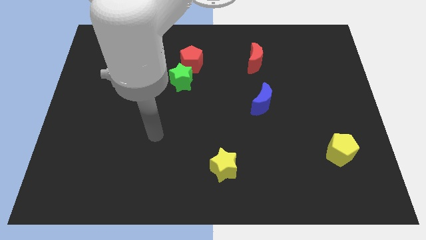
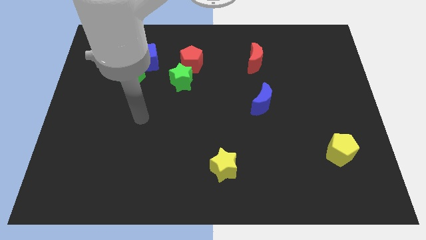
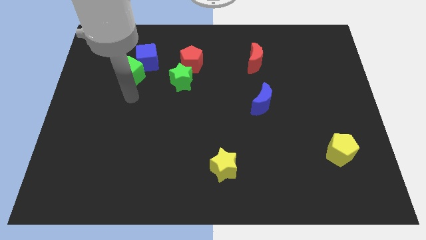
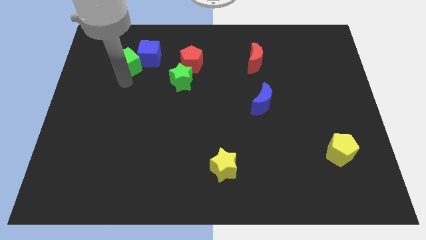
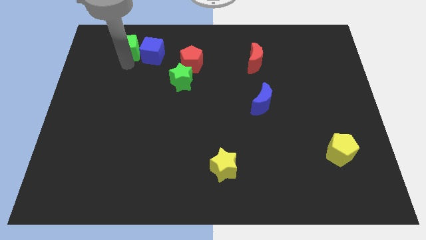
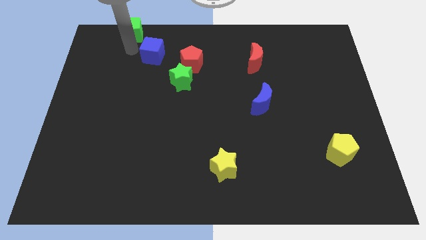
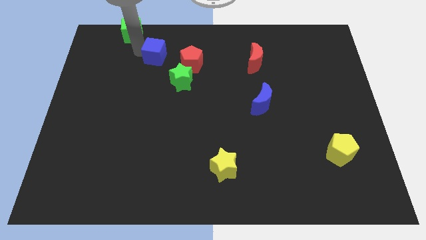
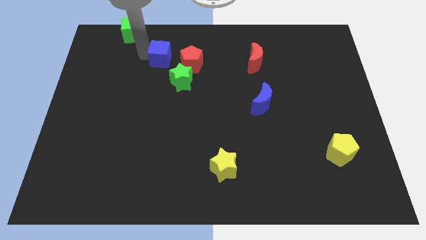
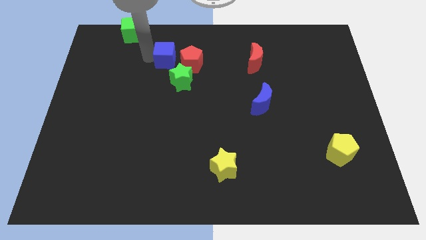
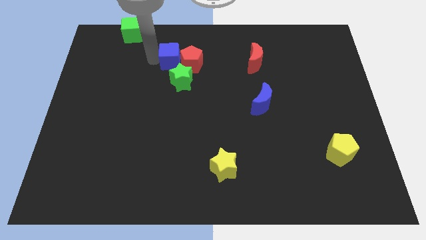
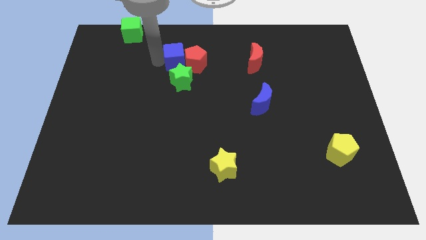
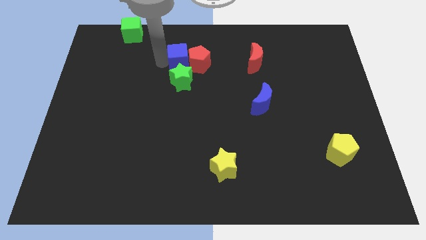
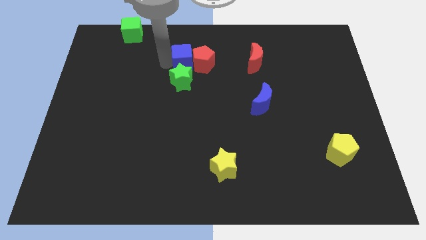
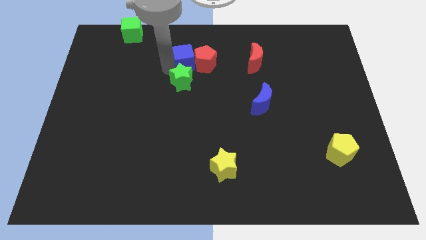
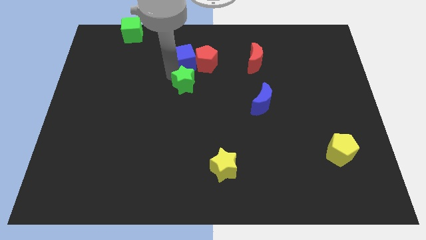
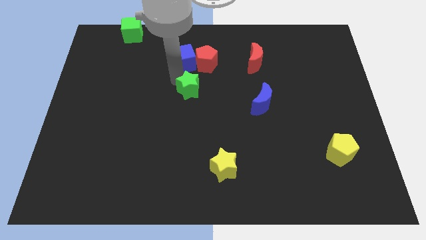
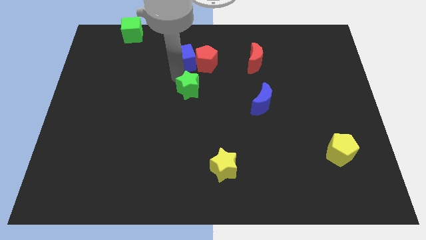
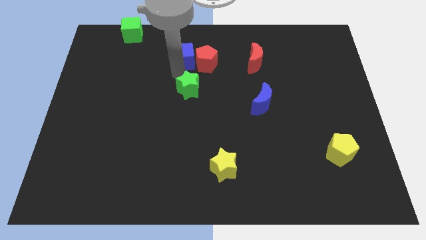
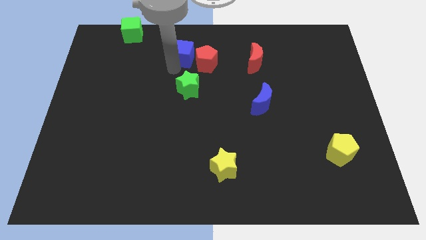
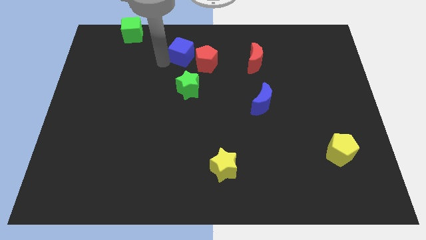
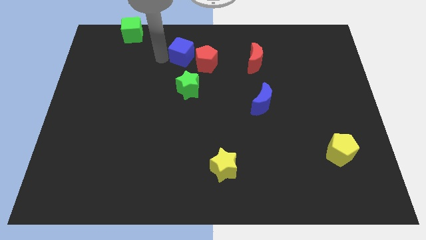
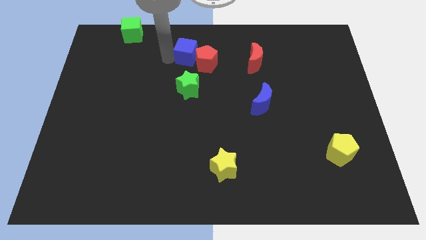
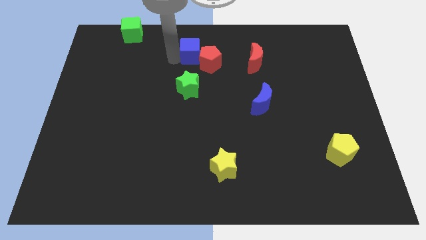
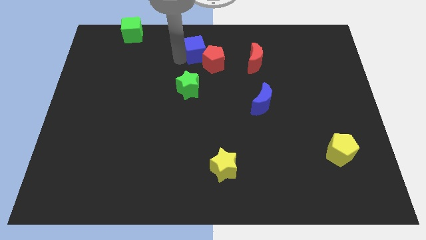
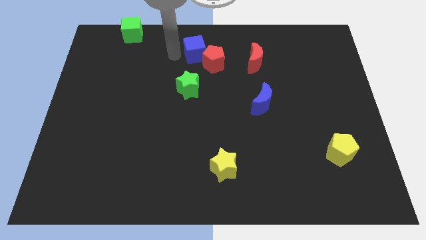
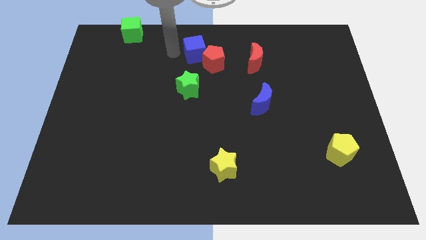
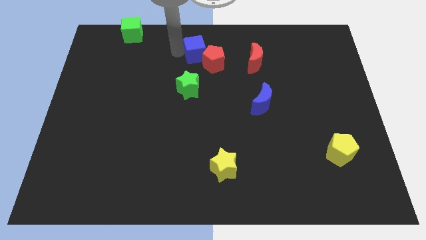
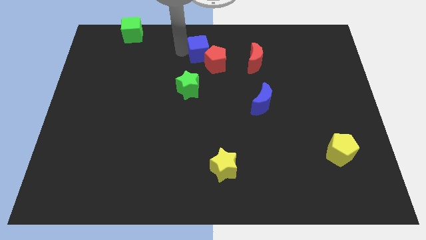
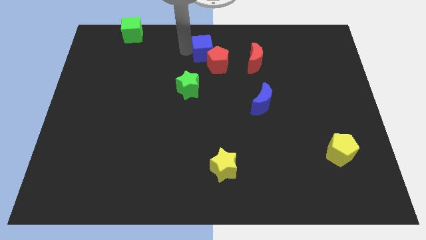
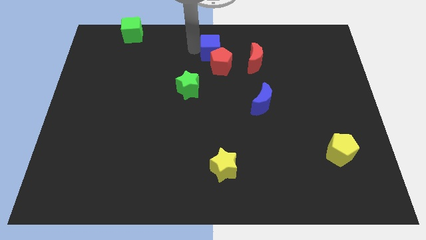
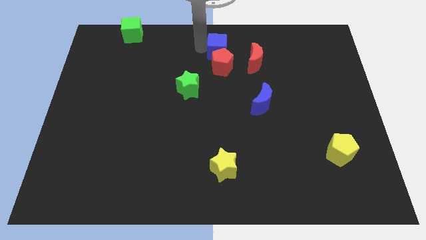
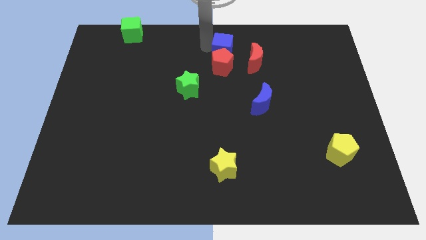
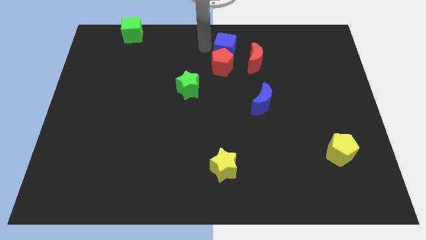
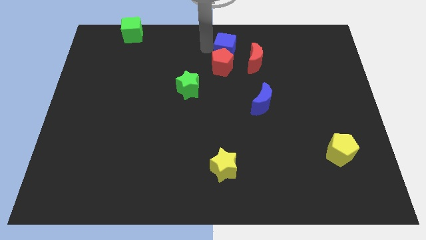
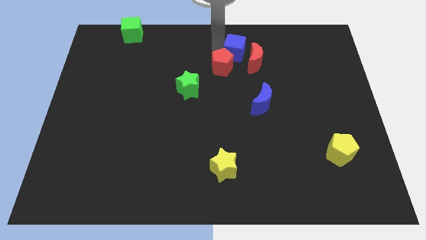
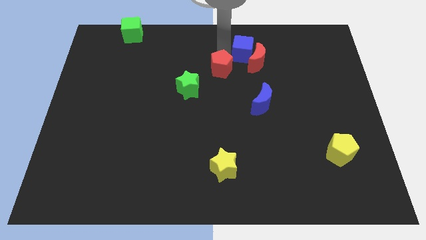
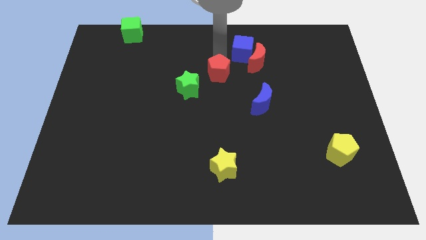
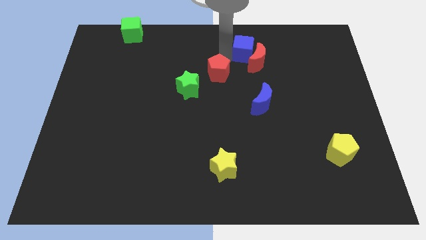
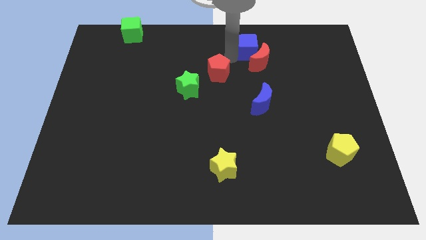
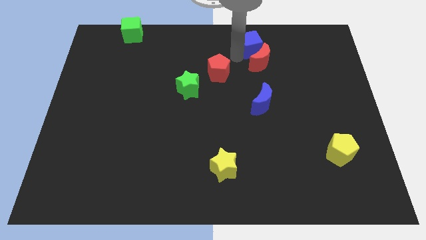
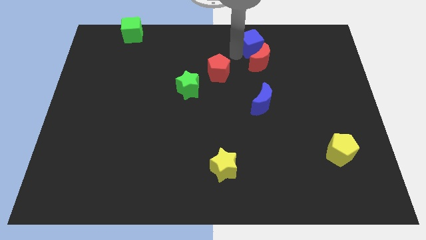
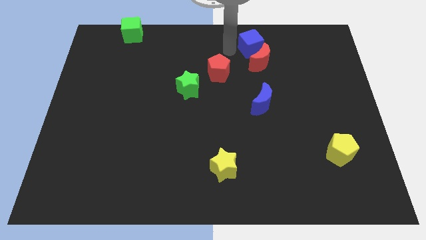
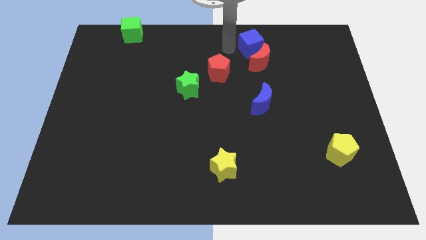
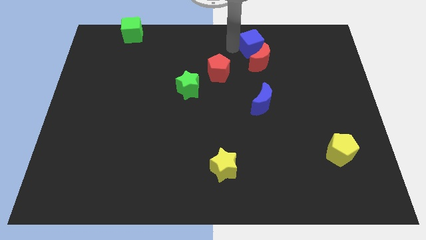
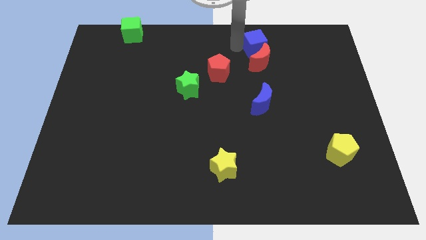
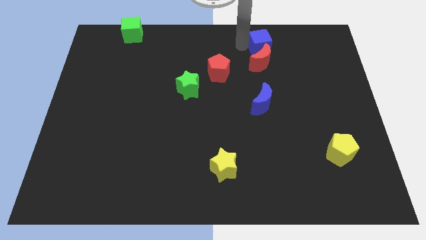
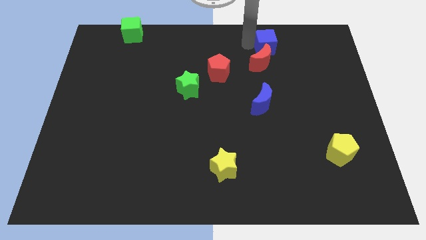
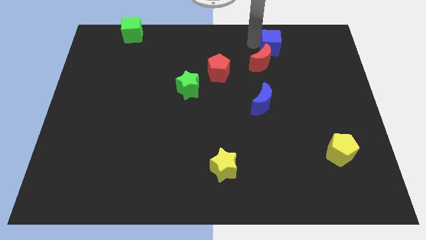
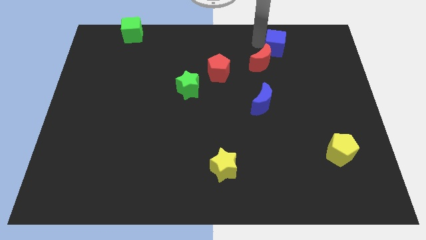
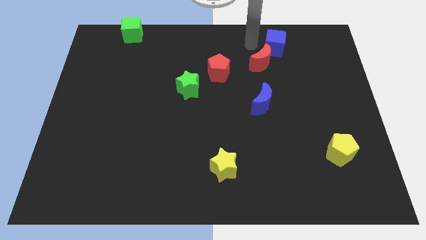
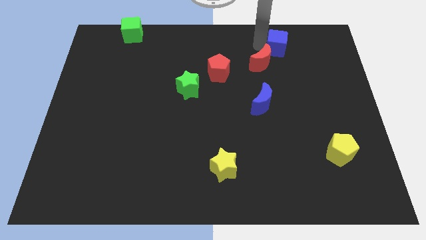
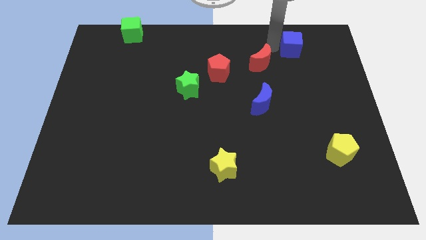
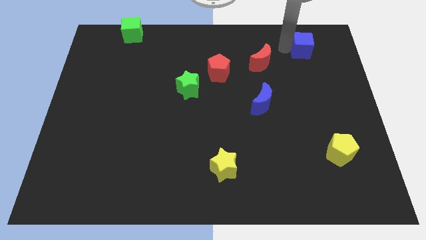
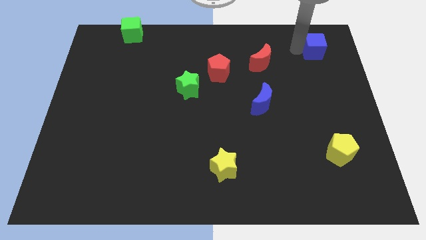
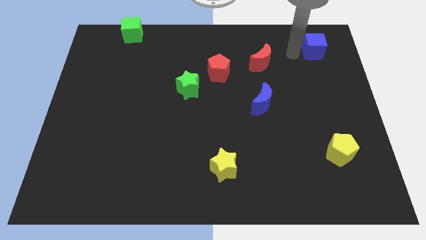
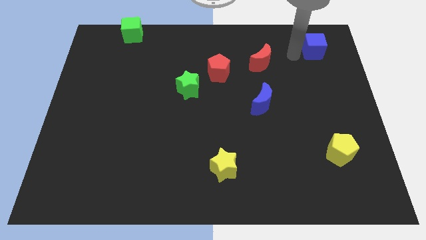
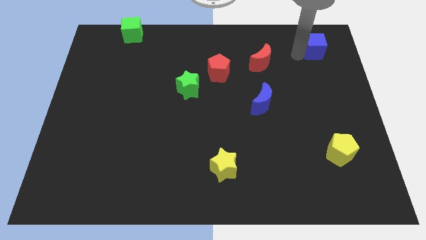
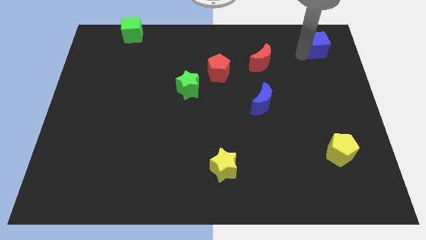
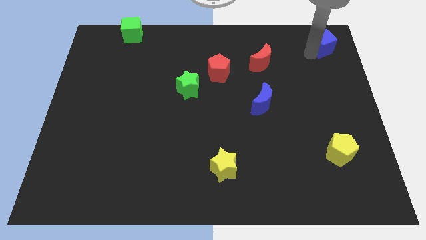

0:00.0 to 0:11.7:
slide the blue cube to the top right of the board

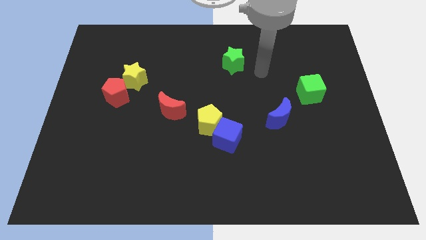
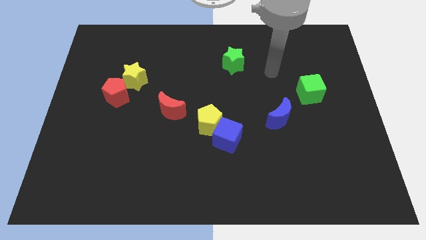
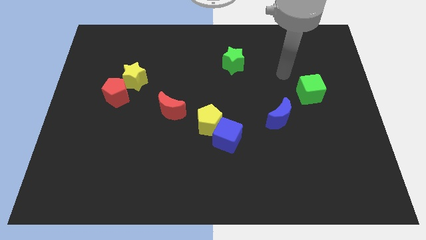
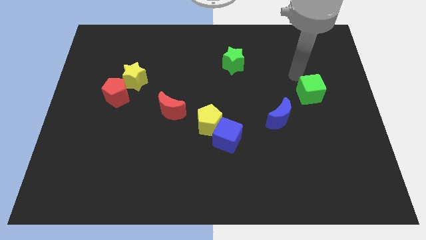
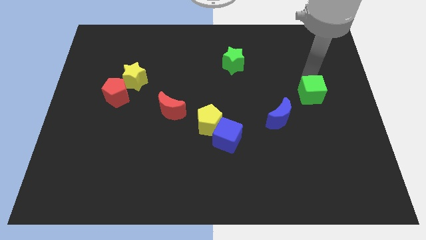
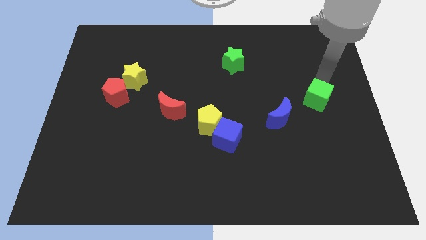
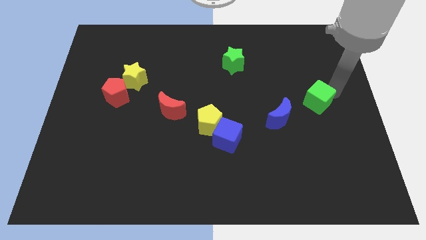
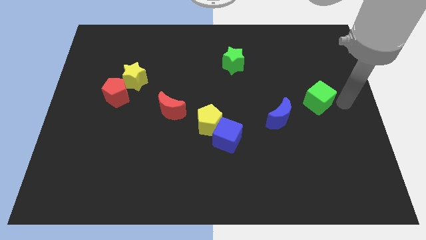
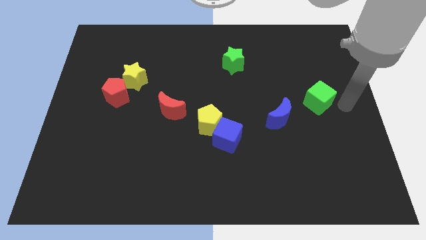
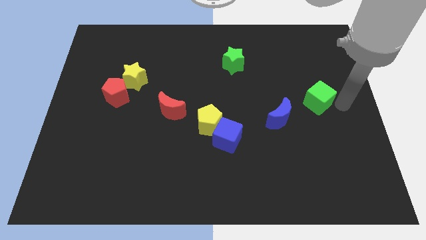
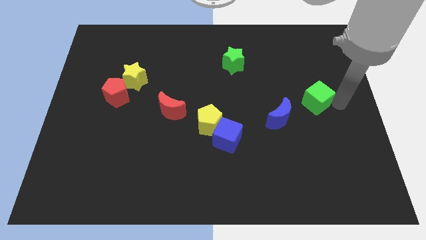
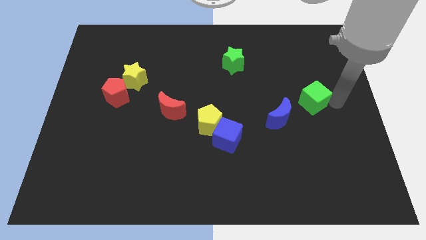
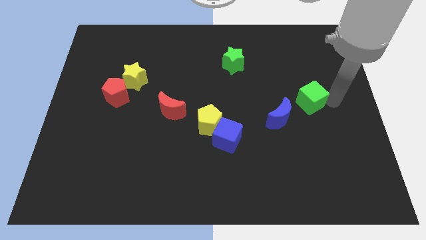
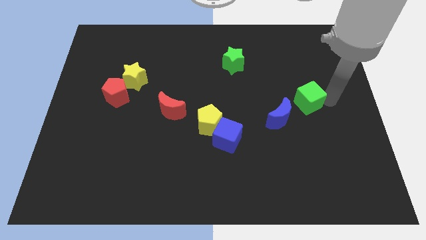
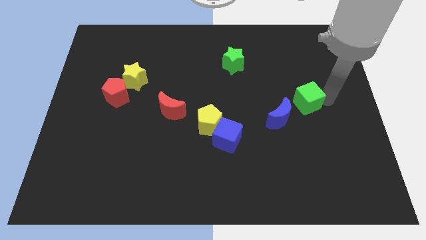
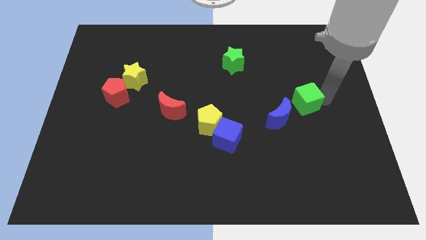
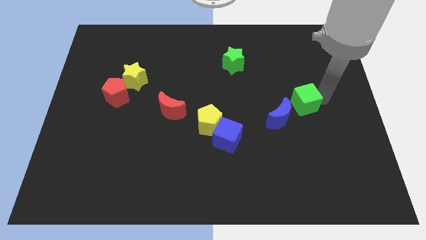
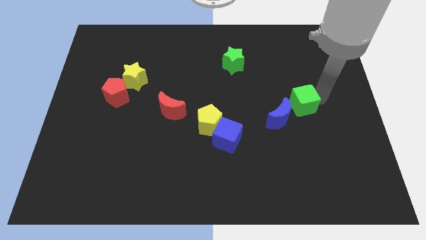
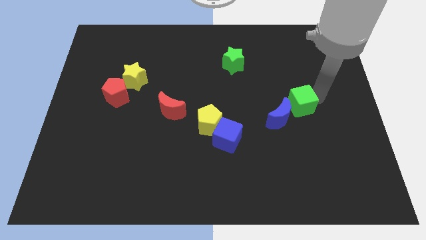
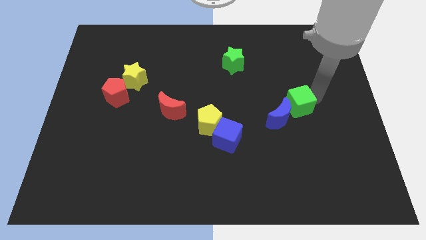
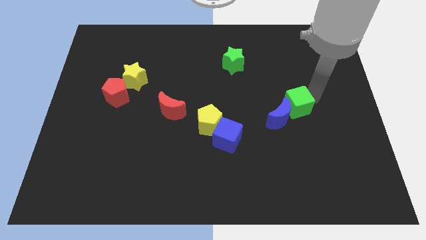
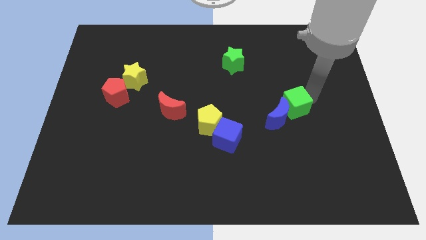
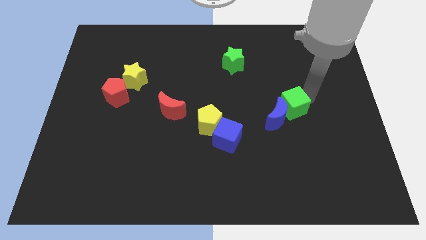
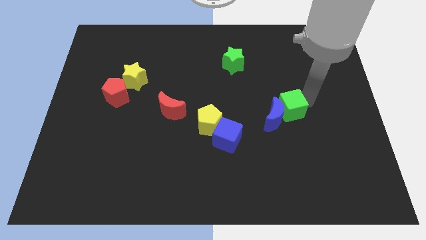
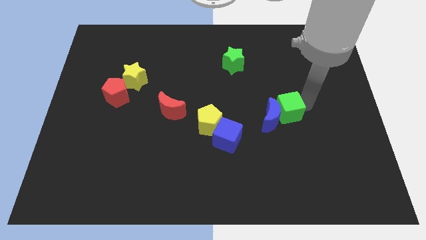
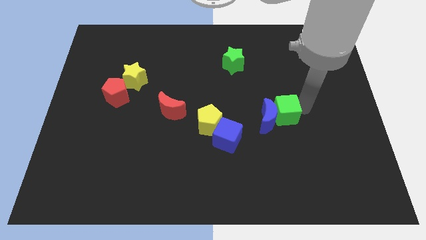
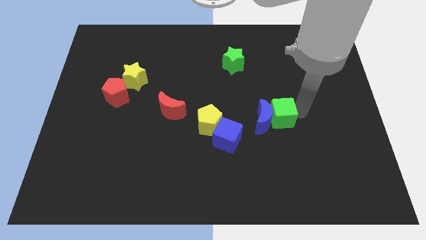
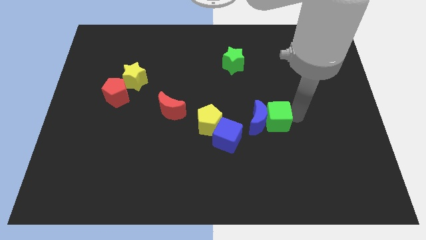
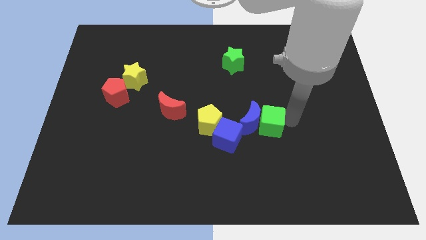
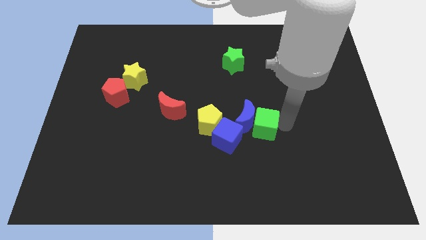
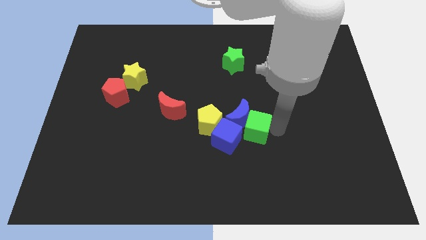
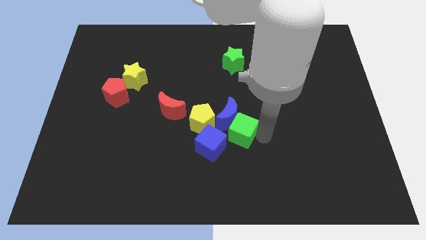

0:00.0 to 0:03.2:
slide the green cube to the center of the board
